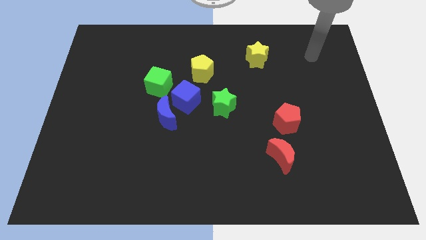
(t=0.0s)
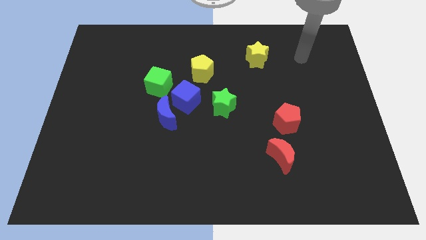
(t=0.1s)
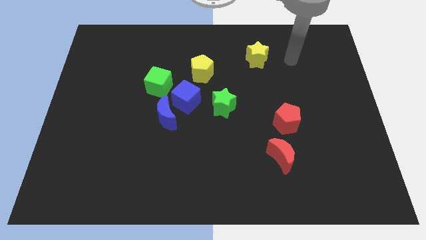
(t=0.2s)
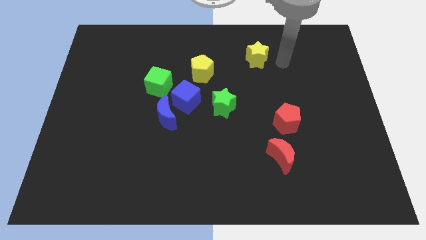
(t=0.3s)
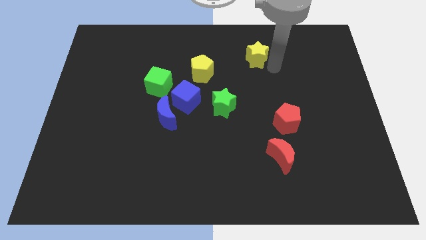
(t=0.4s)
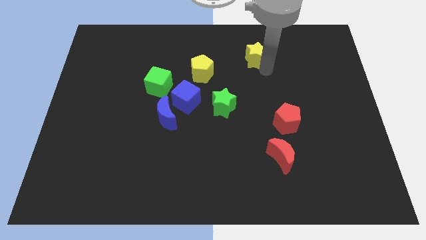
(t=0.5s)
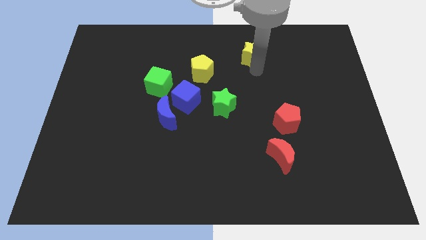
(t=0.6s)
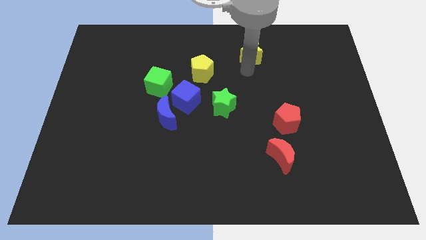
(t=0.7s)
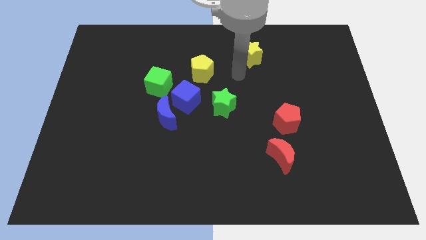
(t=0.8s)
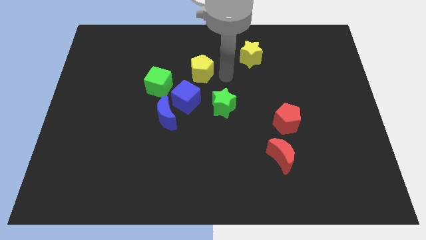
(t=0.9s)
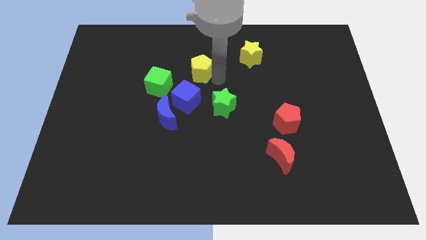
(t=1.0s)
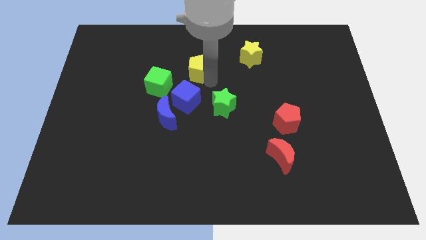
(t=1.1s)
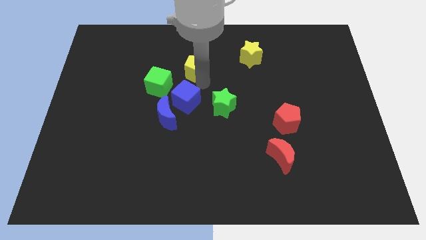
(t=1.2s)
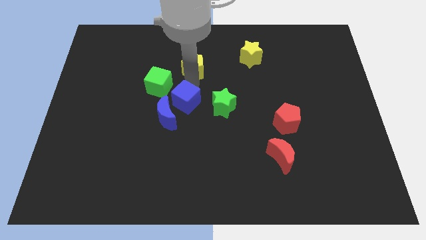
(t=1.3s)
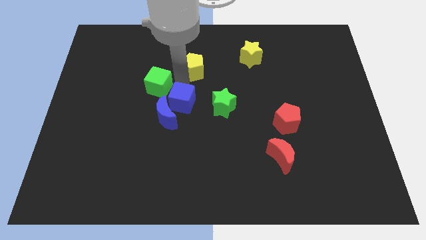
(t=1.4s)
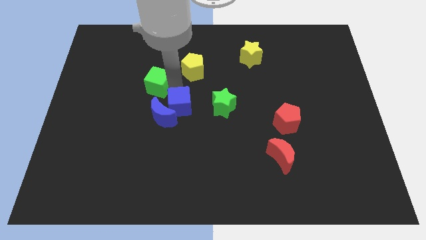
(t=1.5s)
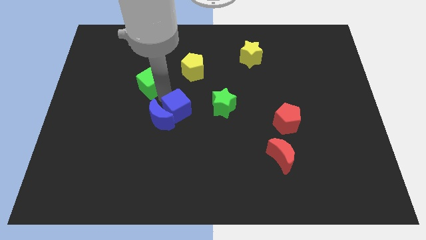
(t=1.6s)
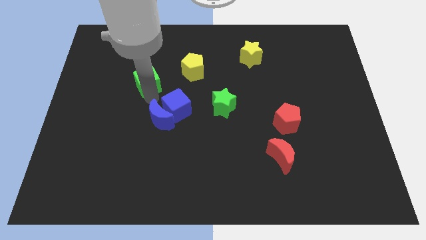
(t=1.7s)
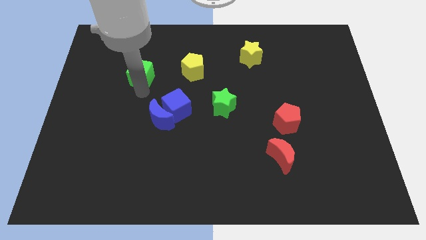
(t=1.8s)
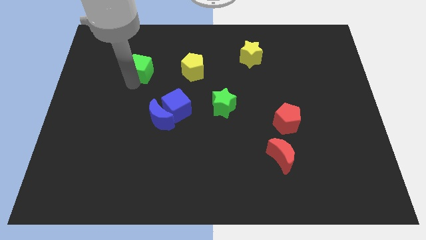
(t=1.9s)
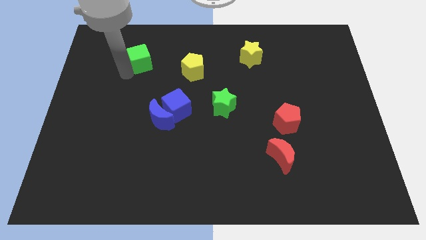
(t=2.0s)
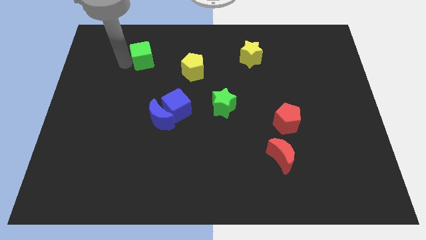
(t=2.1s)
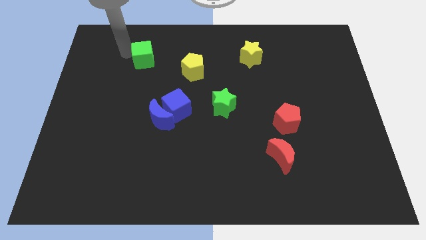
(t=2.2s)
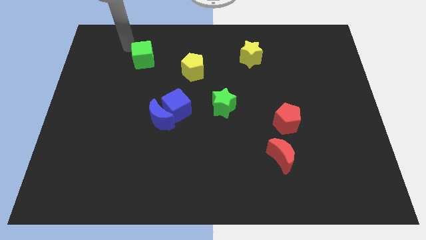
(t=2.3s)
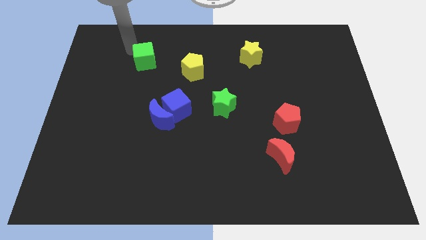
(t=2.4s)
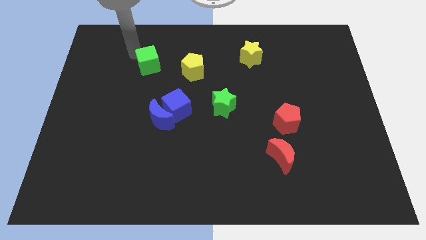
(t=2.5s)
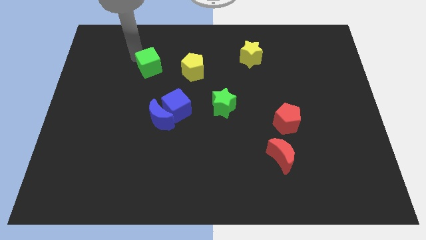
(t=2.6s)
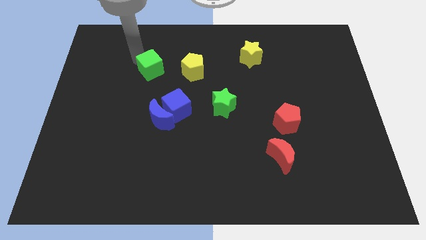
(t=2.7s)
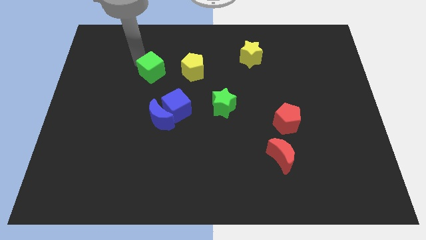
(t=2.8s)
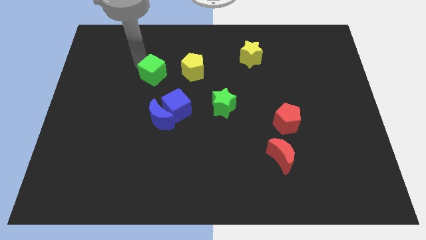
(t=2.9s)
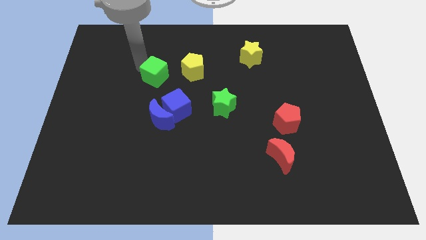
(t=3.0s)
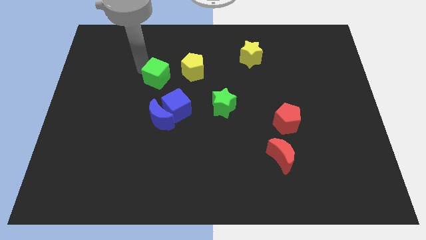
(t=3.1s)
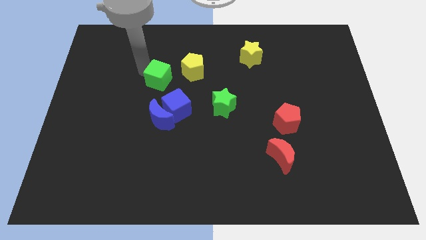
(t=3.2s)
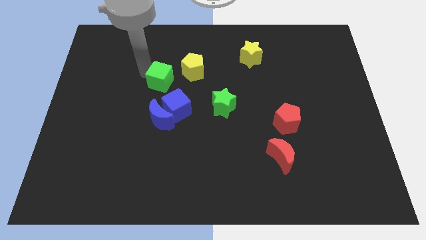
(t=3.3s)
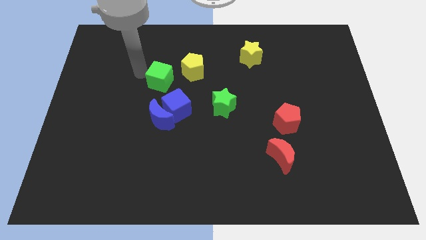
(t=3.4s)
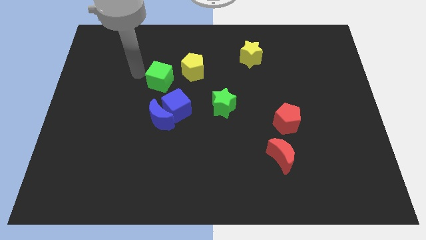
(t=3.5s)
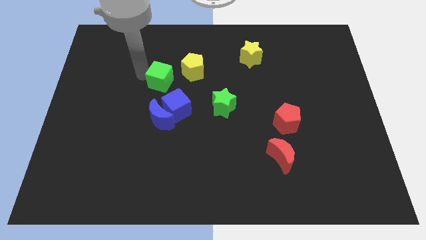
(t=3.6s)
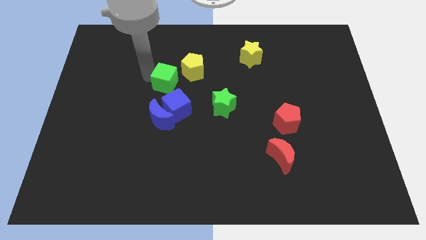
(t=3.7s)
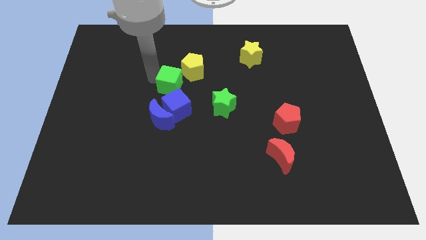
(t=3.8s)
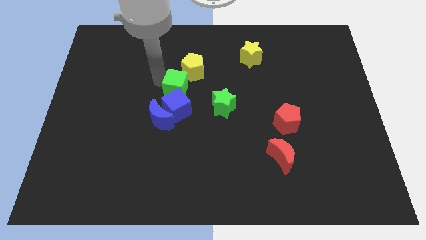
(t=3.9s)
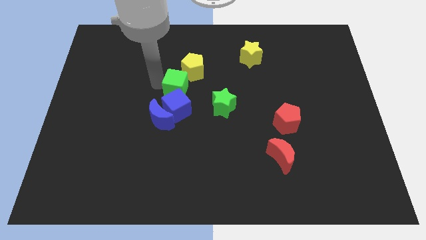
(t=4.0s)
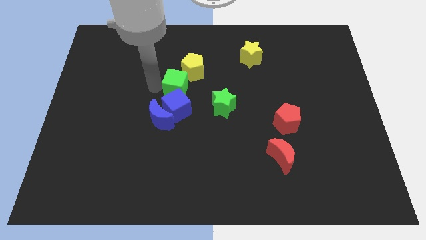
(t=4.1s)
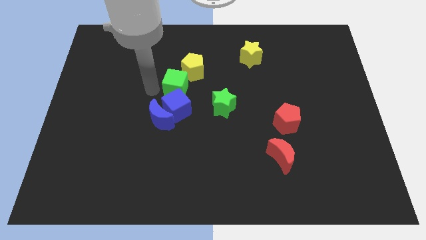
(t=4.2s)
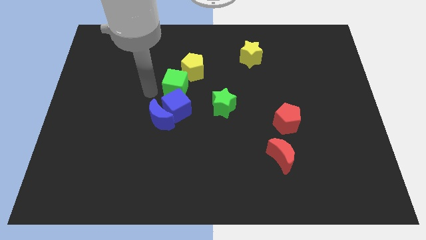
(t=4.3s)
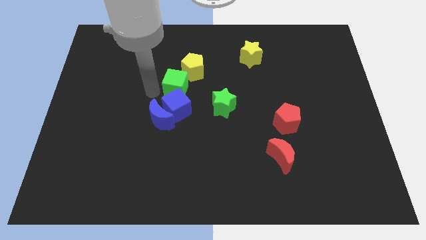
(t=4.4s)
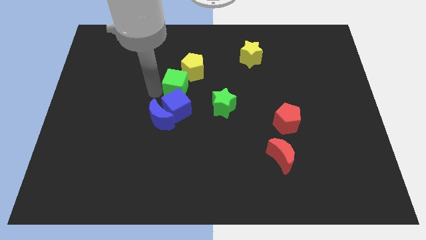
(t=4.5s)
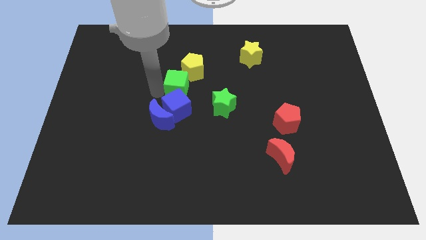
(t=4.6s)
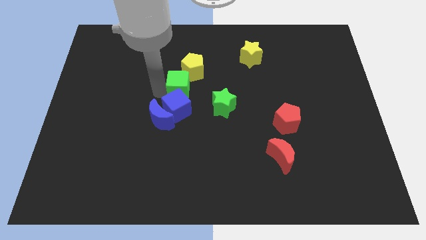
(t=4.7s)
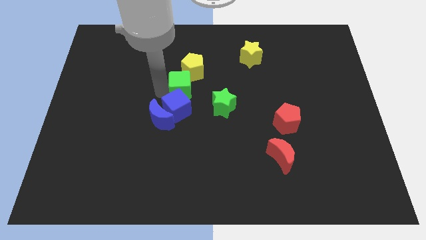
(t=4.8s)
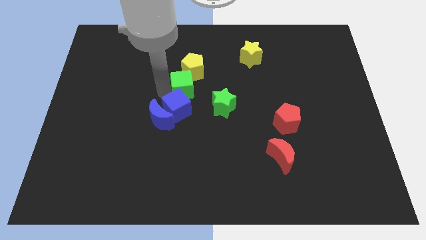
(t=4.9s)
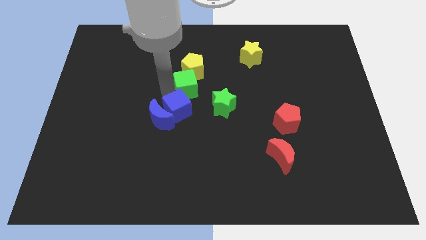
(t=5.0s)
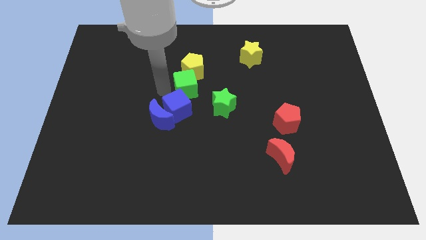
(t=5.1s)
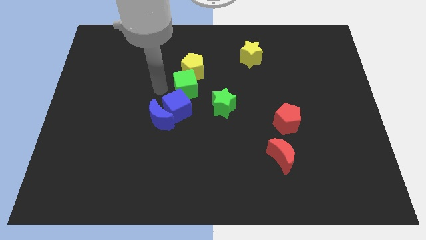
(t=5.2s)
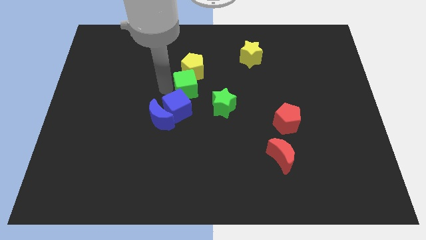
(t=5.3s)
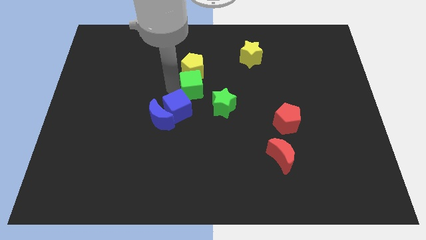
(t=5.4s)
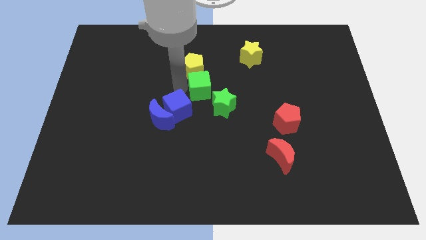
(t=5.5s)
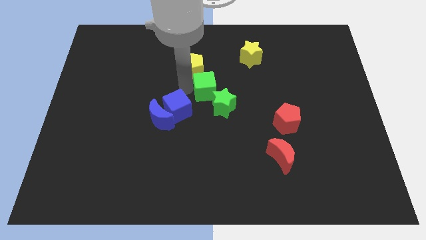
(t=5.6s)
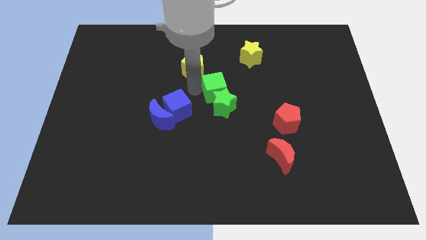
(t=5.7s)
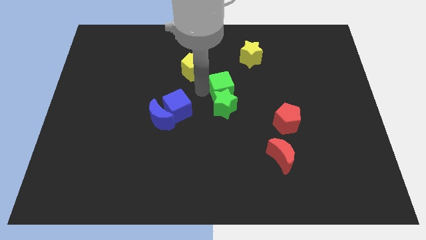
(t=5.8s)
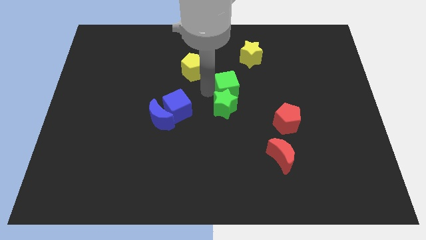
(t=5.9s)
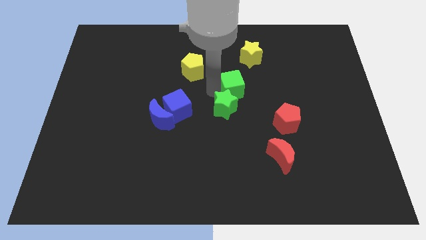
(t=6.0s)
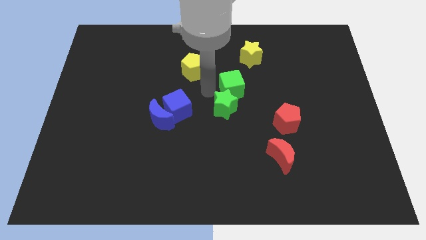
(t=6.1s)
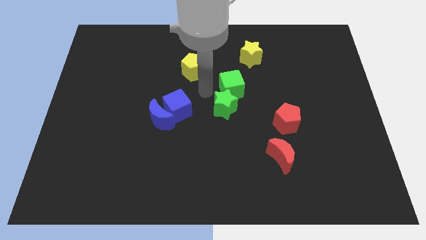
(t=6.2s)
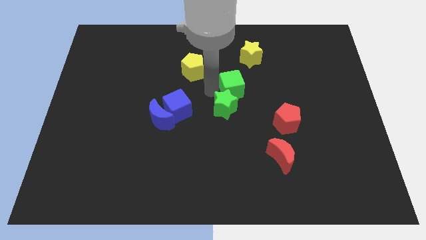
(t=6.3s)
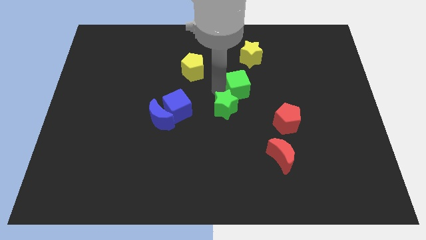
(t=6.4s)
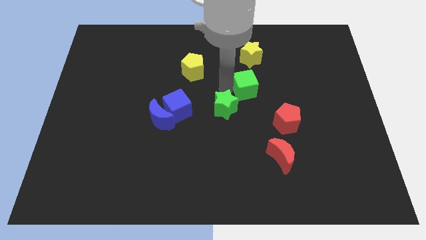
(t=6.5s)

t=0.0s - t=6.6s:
push the green cube right

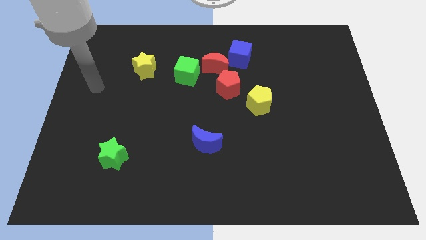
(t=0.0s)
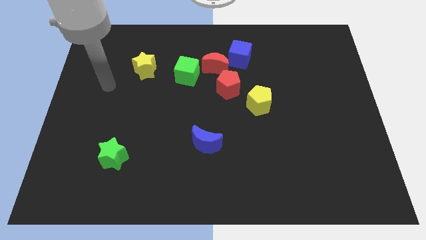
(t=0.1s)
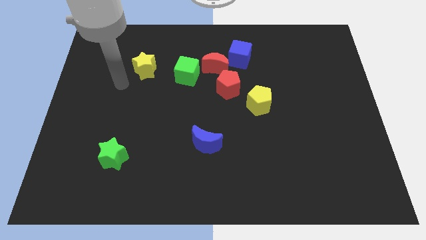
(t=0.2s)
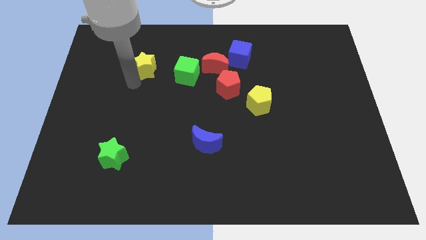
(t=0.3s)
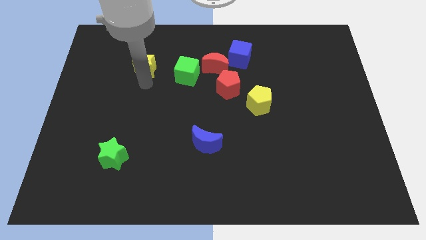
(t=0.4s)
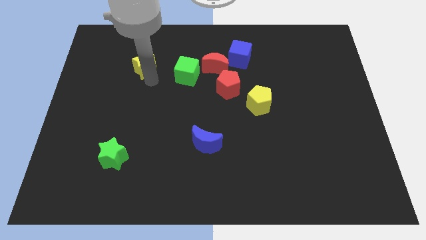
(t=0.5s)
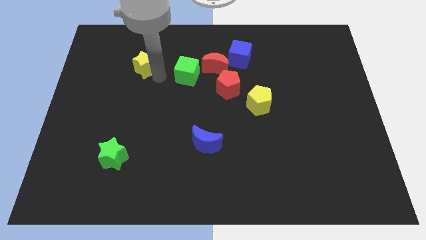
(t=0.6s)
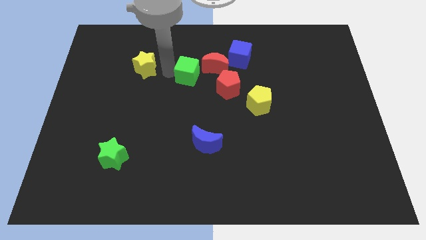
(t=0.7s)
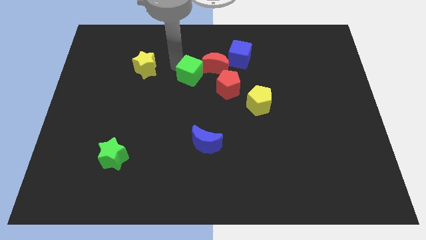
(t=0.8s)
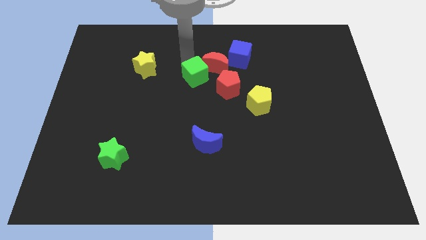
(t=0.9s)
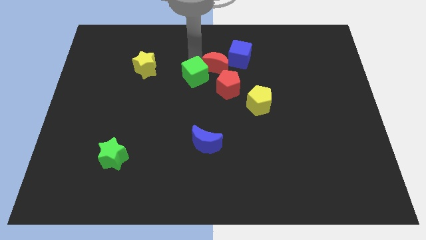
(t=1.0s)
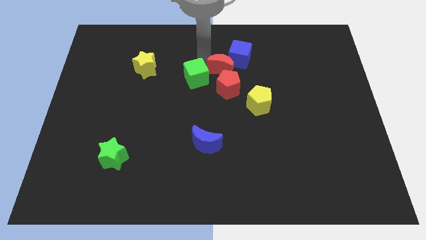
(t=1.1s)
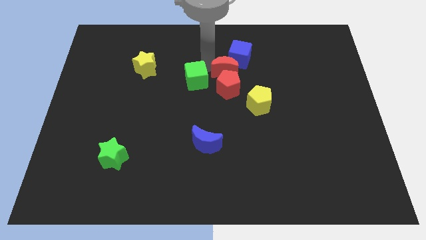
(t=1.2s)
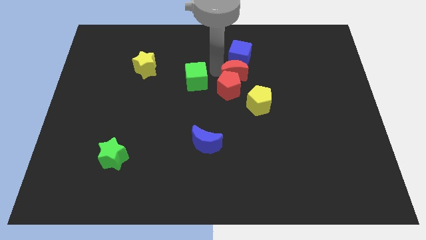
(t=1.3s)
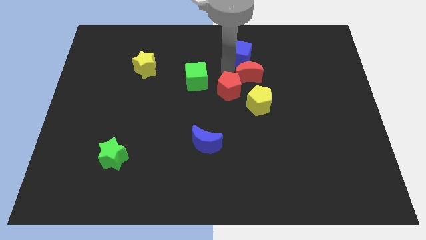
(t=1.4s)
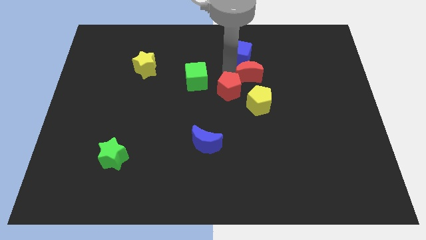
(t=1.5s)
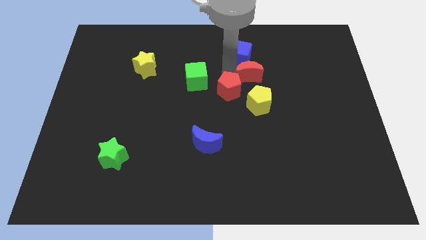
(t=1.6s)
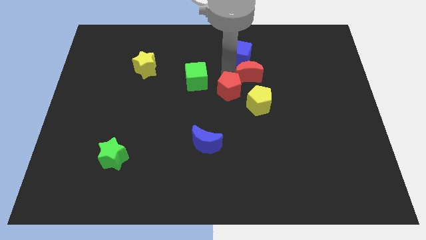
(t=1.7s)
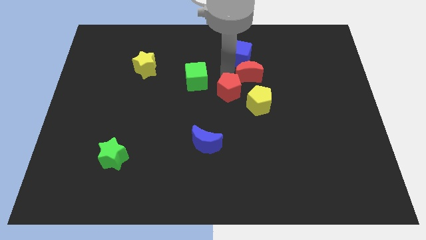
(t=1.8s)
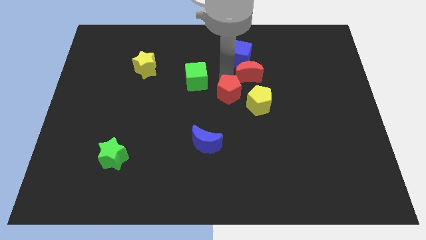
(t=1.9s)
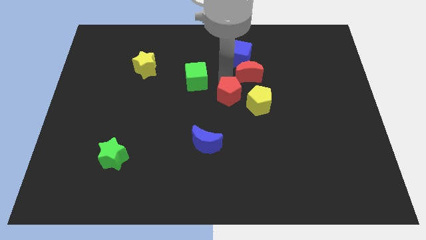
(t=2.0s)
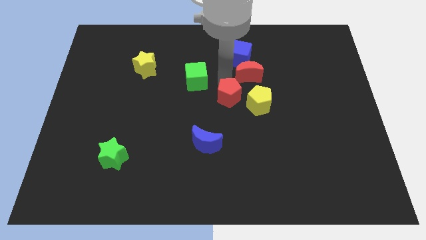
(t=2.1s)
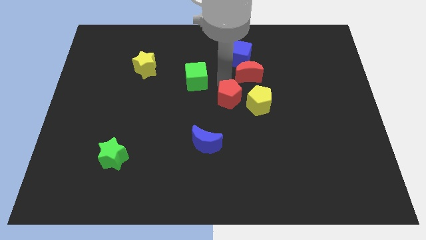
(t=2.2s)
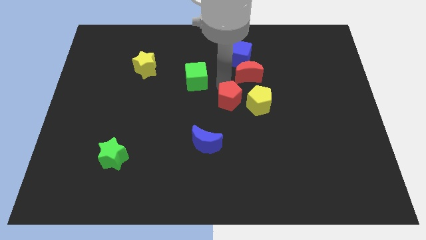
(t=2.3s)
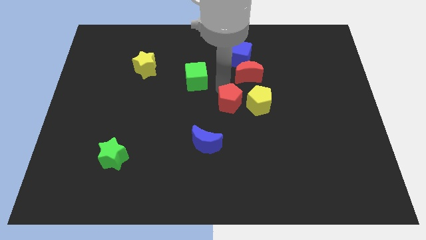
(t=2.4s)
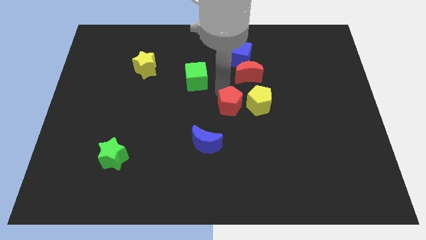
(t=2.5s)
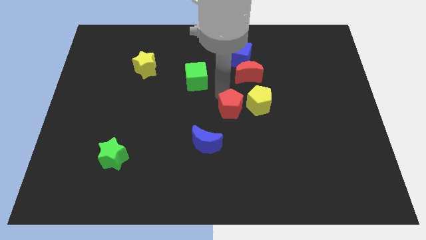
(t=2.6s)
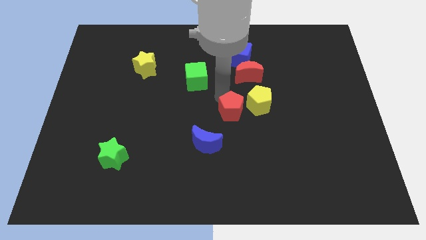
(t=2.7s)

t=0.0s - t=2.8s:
move the red pentagon a little downwards
